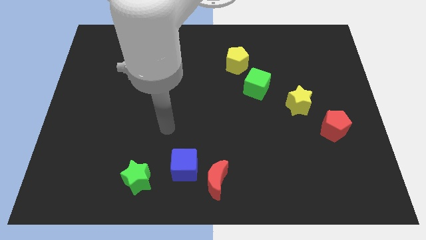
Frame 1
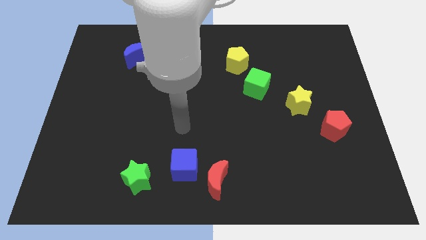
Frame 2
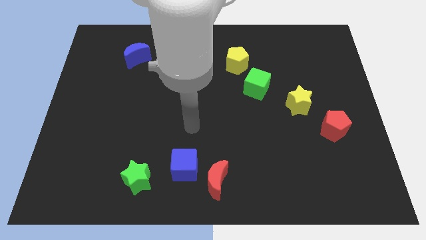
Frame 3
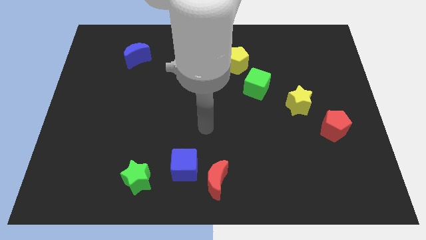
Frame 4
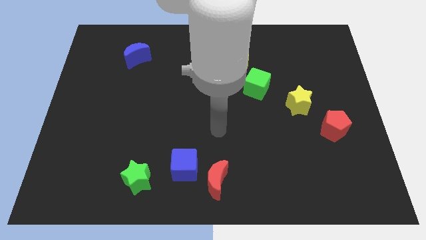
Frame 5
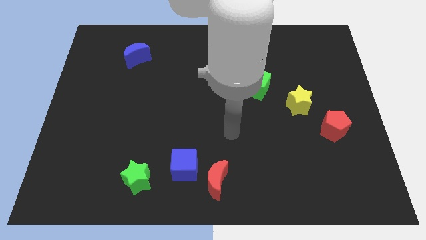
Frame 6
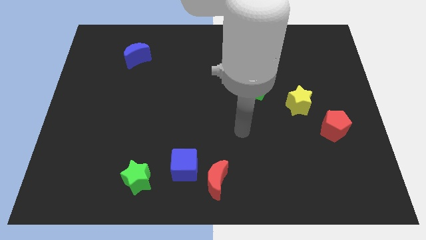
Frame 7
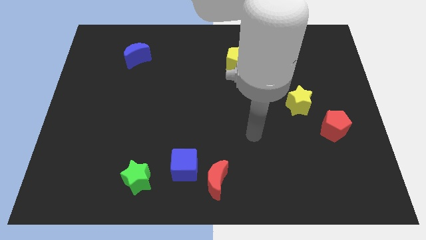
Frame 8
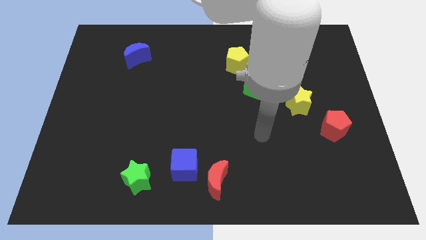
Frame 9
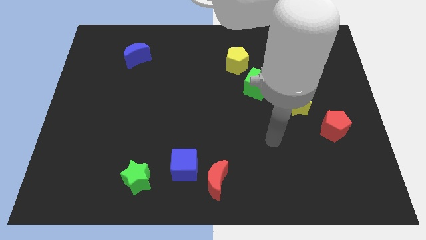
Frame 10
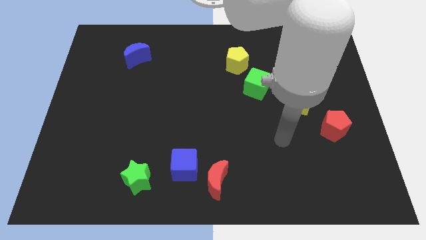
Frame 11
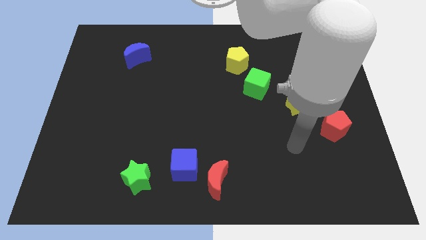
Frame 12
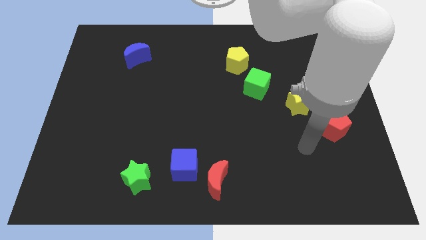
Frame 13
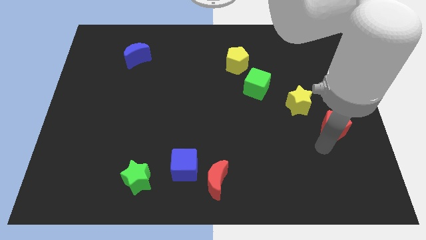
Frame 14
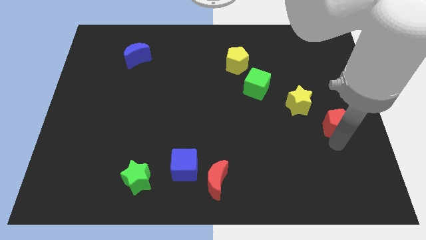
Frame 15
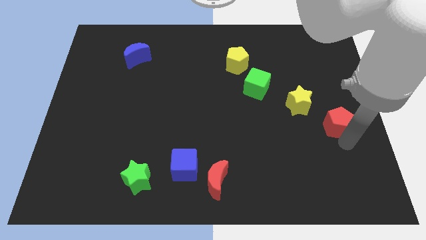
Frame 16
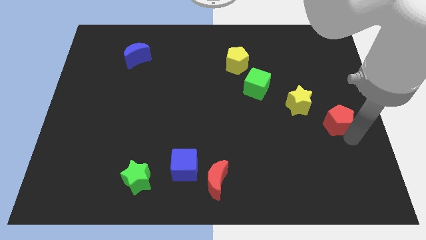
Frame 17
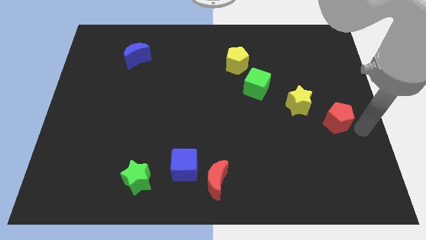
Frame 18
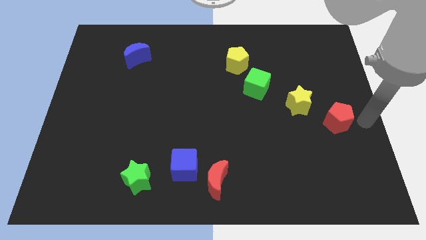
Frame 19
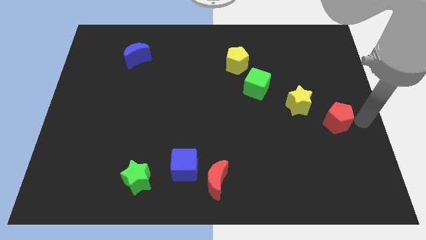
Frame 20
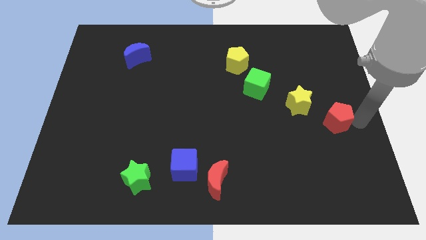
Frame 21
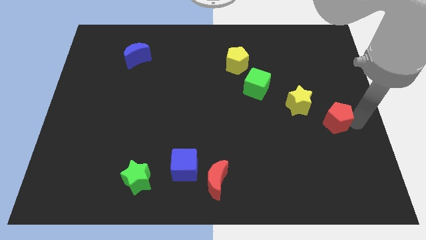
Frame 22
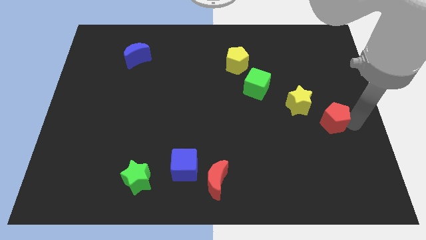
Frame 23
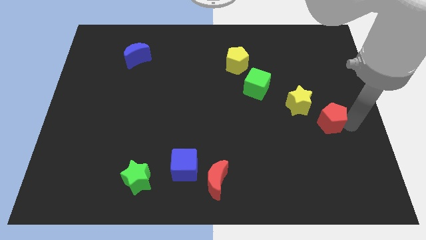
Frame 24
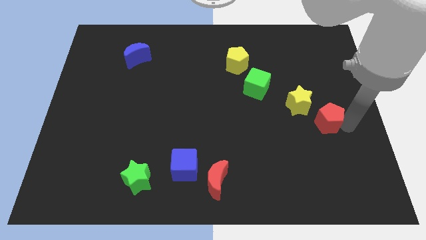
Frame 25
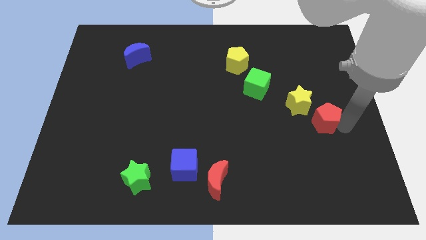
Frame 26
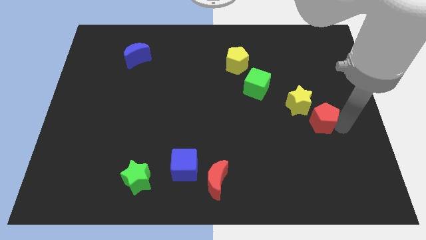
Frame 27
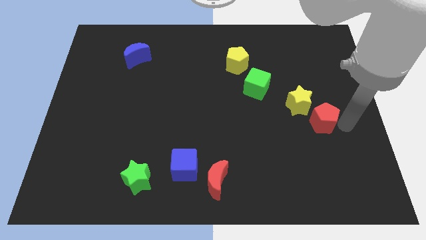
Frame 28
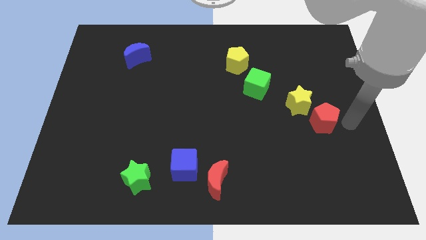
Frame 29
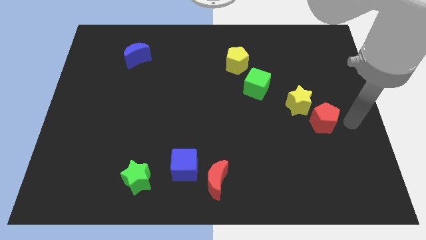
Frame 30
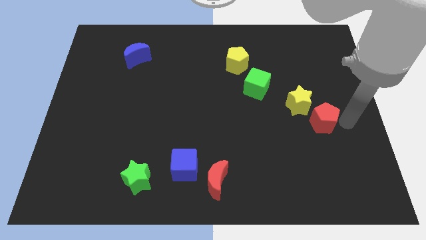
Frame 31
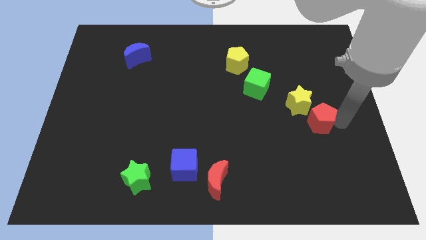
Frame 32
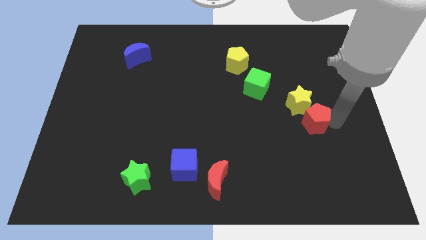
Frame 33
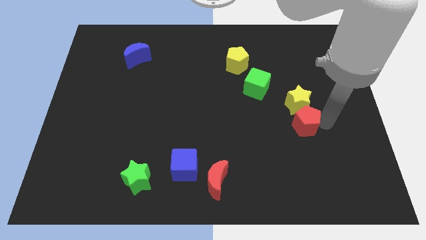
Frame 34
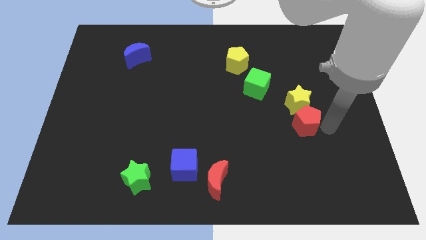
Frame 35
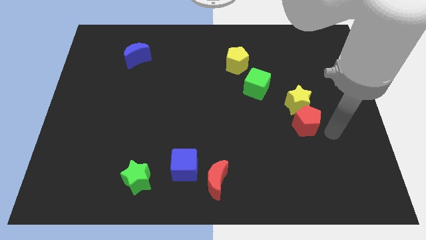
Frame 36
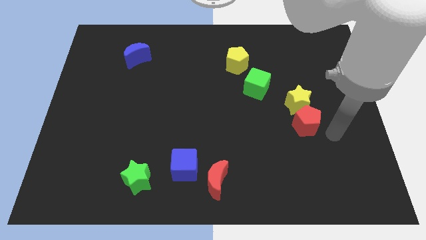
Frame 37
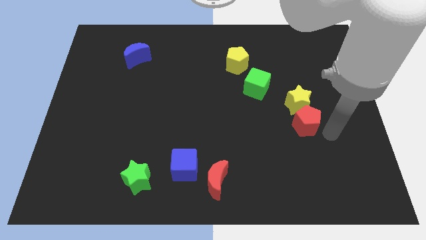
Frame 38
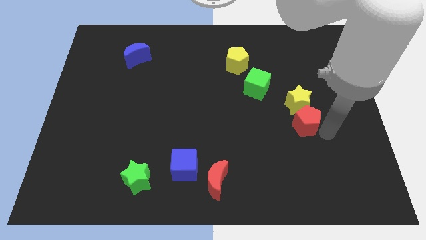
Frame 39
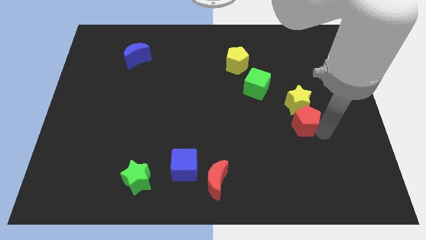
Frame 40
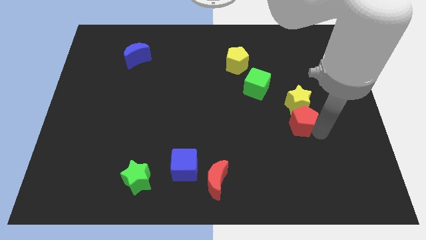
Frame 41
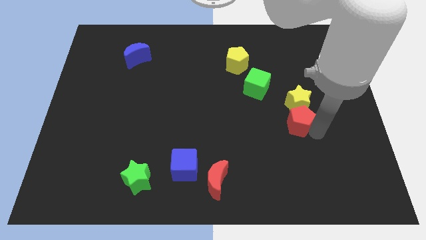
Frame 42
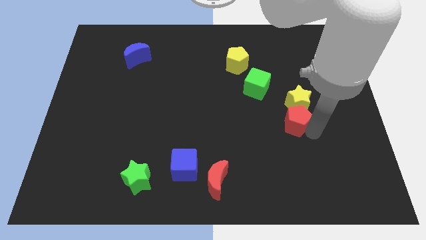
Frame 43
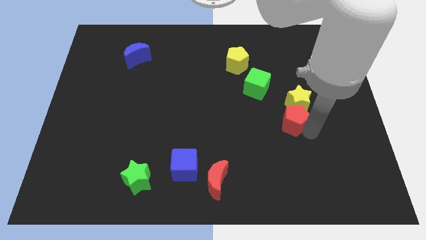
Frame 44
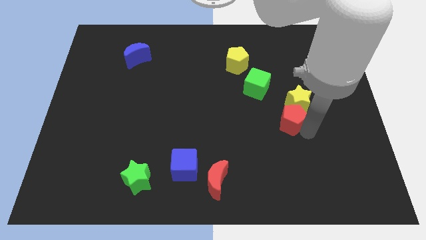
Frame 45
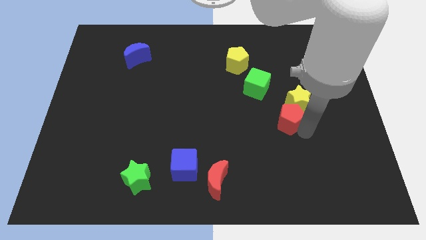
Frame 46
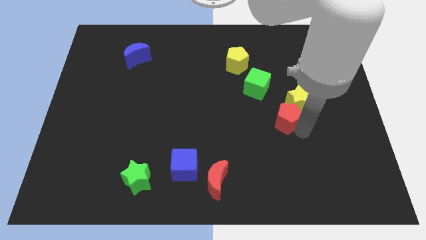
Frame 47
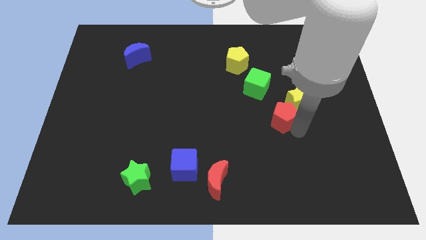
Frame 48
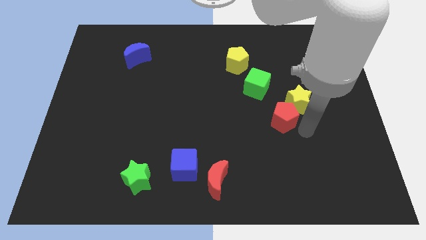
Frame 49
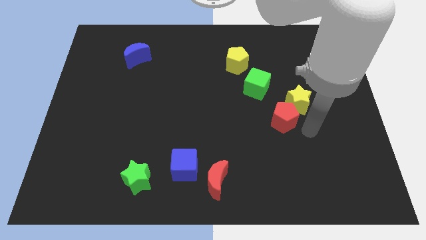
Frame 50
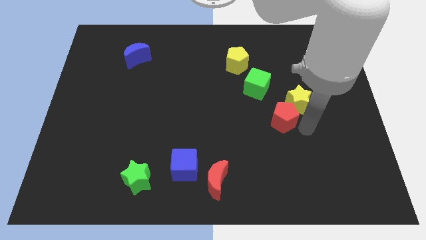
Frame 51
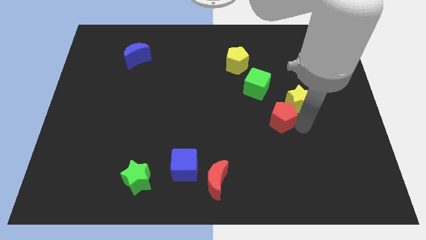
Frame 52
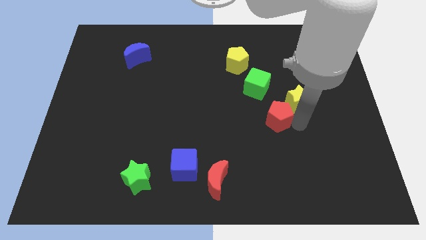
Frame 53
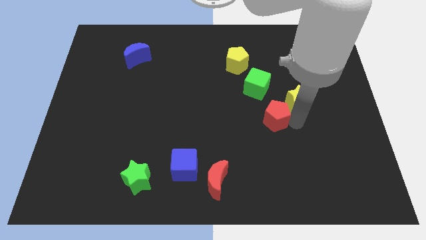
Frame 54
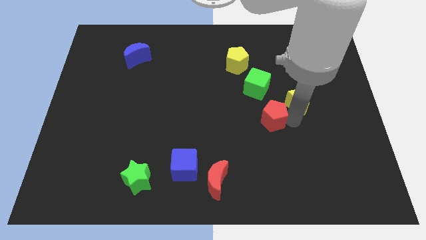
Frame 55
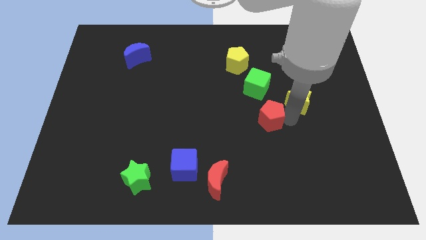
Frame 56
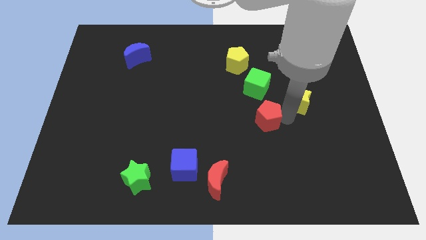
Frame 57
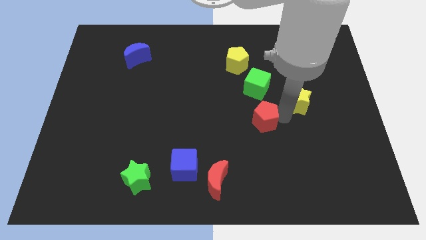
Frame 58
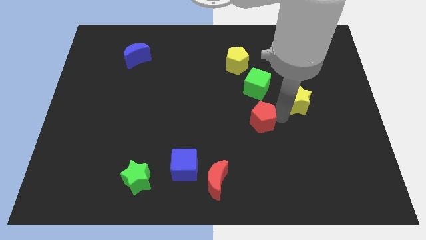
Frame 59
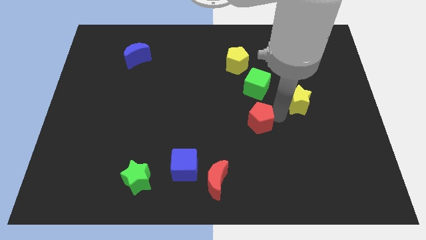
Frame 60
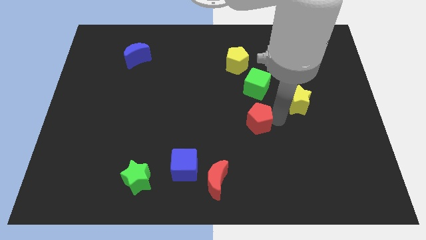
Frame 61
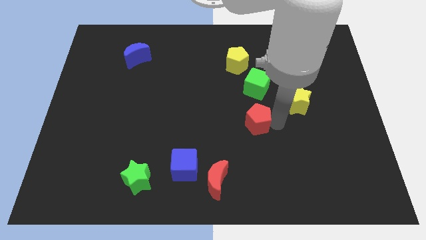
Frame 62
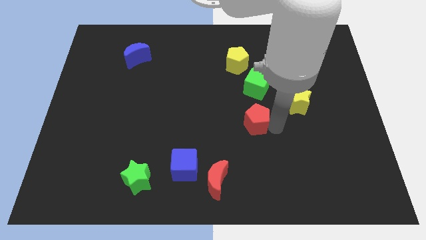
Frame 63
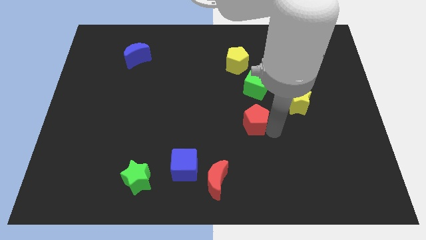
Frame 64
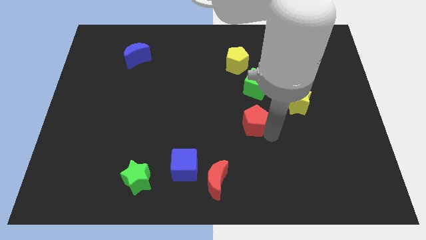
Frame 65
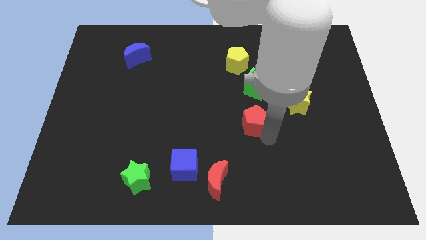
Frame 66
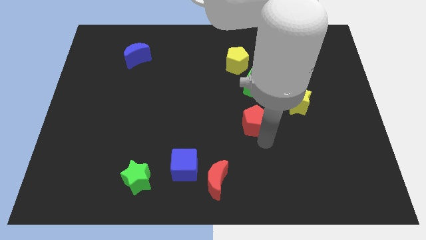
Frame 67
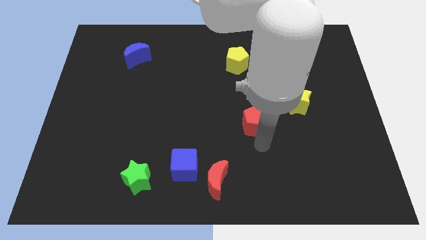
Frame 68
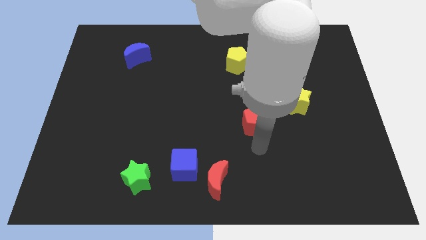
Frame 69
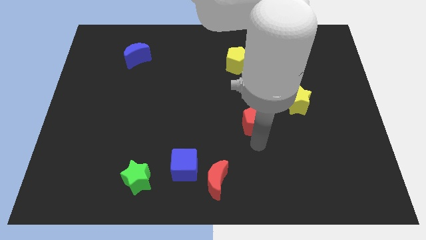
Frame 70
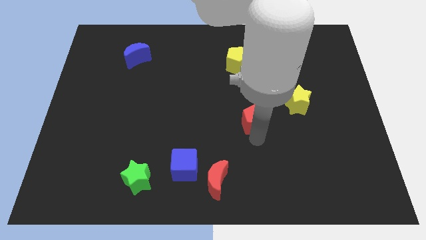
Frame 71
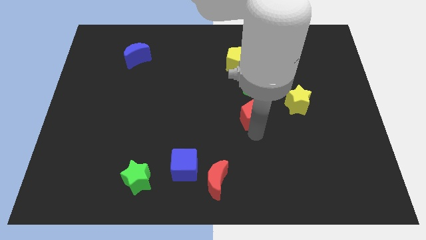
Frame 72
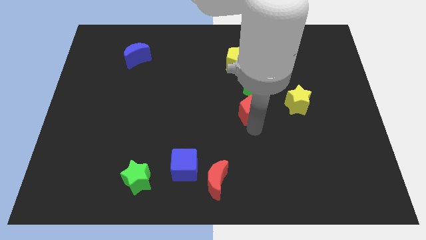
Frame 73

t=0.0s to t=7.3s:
put the red pentagon to the bottom left side of the green cube

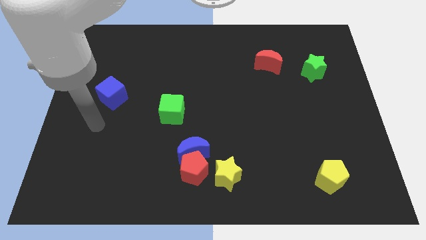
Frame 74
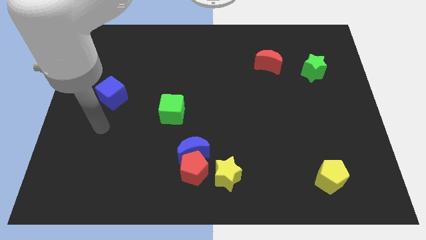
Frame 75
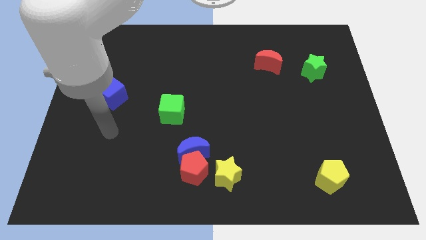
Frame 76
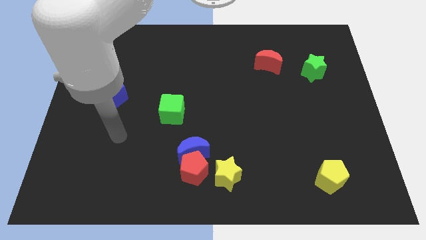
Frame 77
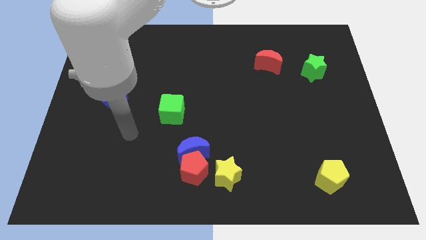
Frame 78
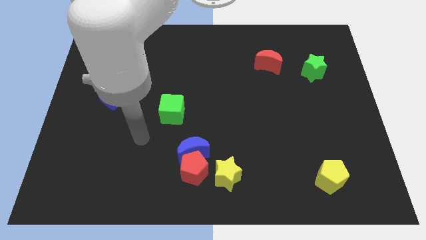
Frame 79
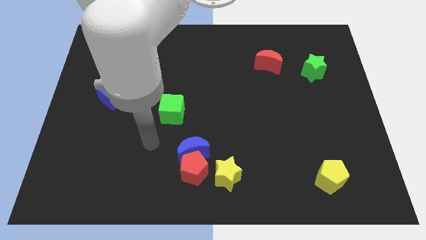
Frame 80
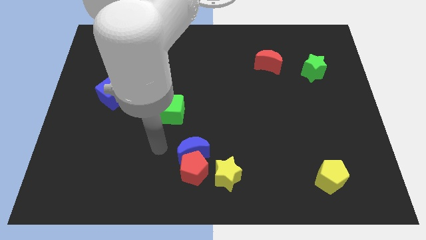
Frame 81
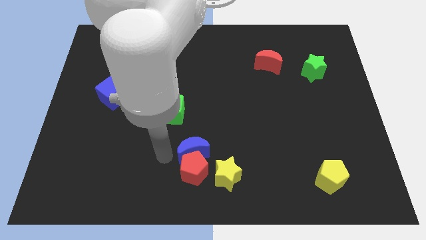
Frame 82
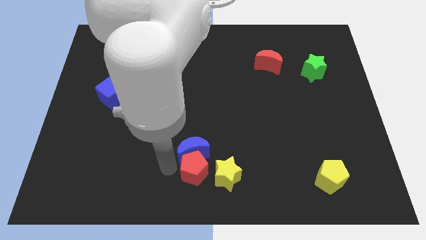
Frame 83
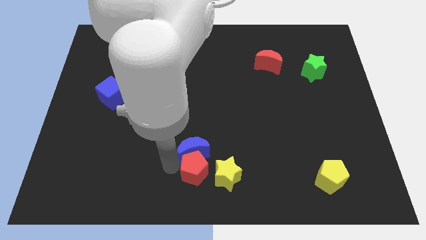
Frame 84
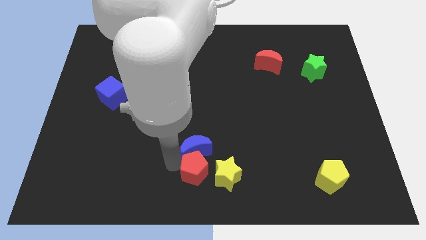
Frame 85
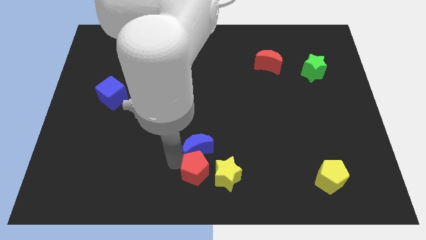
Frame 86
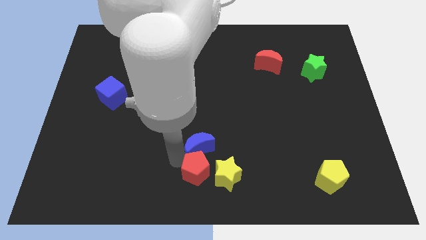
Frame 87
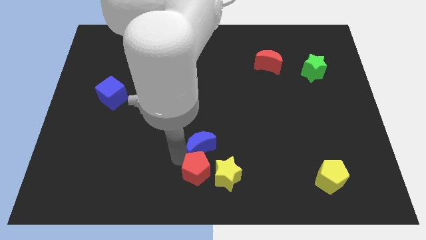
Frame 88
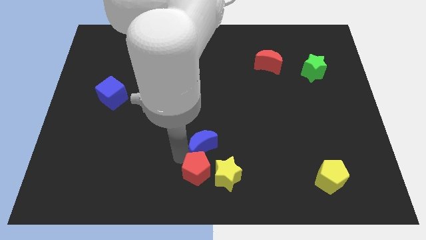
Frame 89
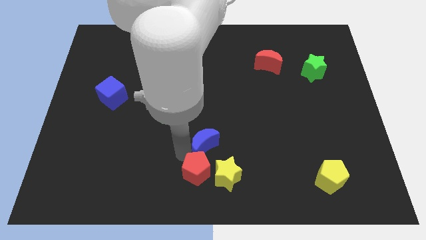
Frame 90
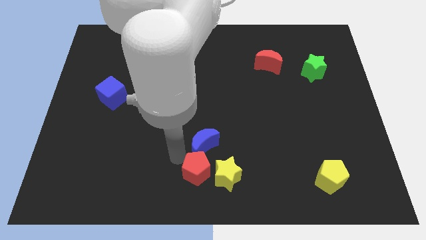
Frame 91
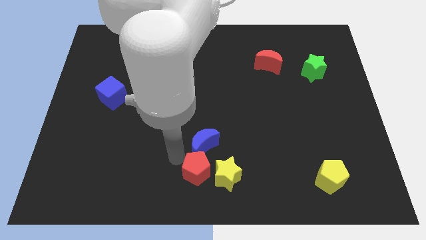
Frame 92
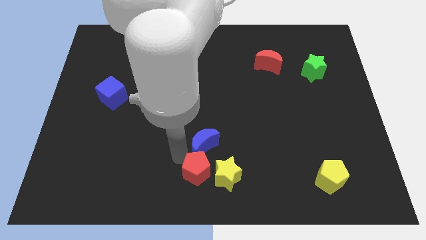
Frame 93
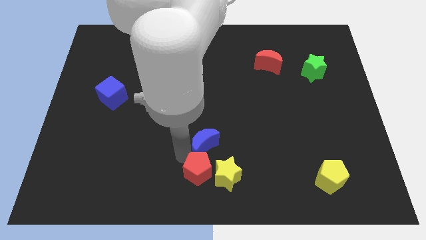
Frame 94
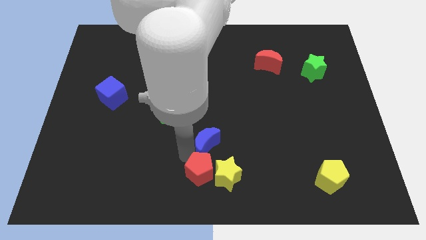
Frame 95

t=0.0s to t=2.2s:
move the blue moon above the yellow star
